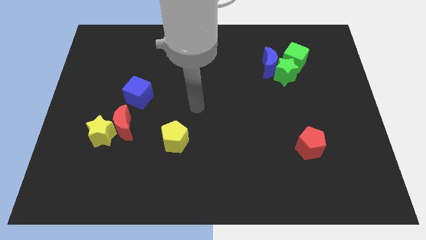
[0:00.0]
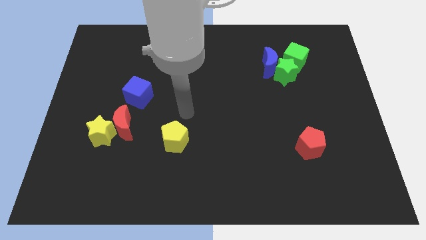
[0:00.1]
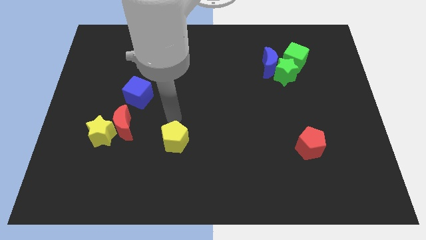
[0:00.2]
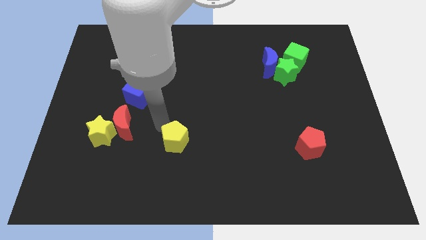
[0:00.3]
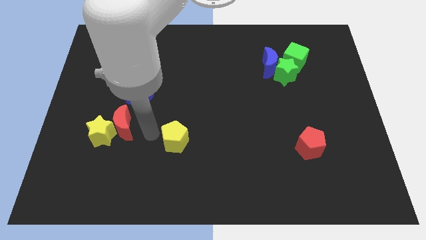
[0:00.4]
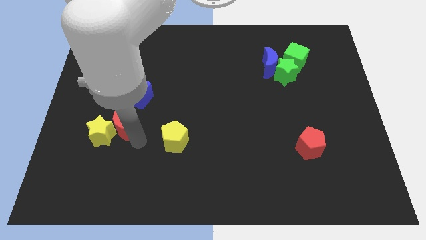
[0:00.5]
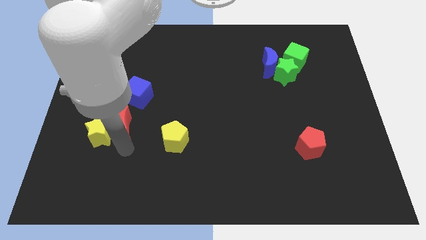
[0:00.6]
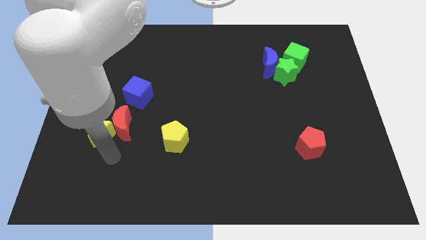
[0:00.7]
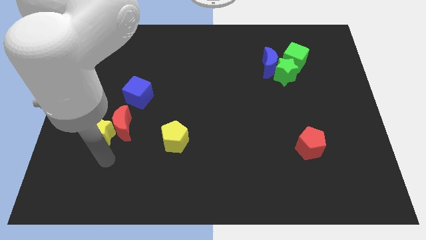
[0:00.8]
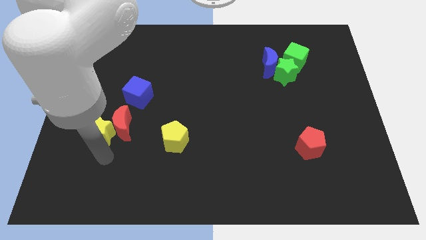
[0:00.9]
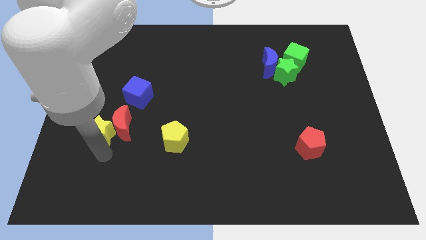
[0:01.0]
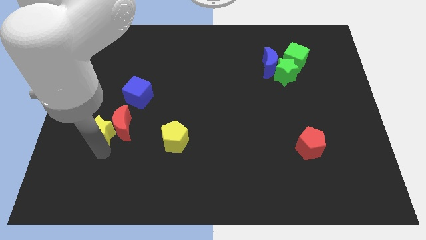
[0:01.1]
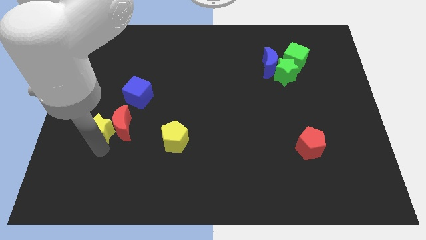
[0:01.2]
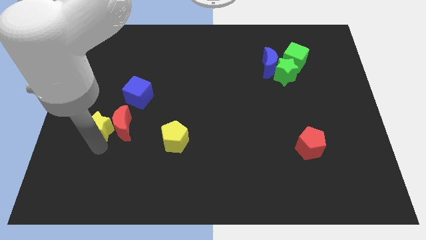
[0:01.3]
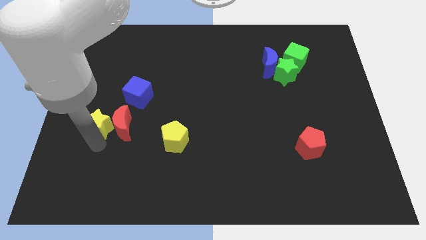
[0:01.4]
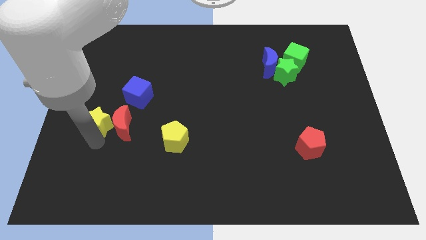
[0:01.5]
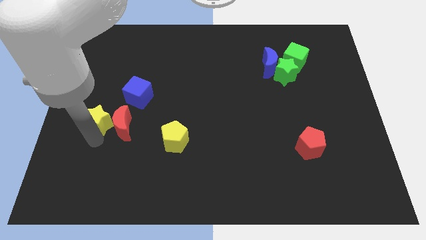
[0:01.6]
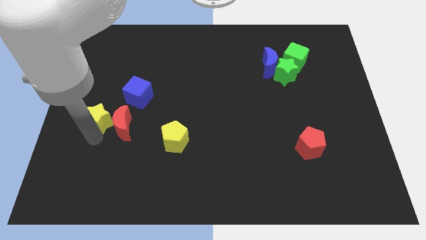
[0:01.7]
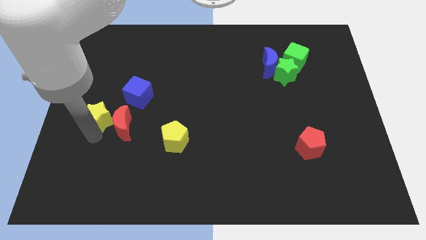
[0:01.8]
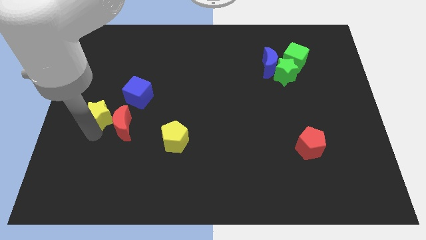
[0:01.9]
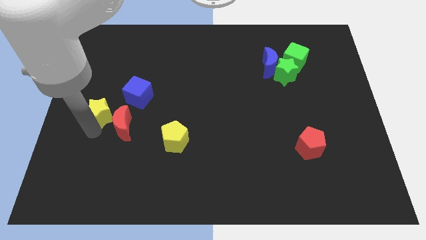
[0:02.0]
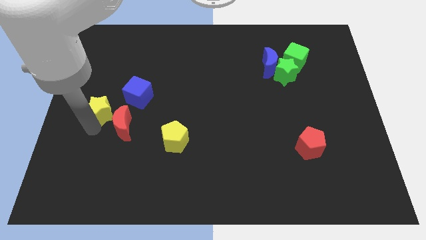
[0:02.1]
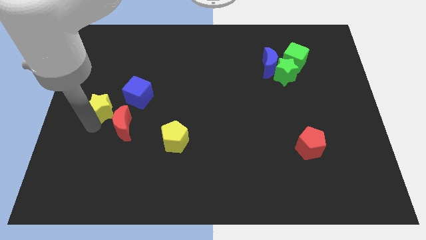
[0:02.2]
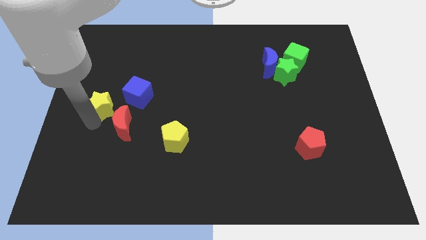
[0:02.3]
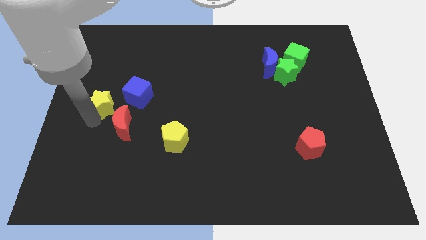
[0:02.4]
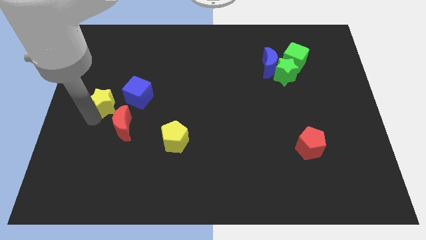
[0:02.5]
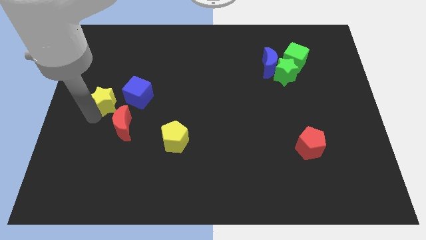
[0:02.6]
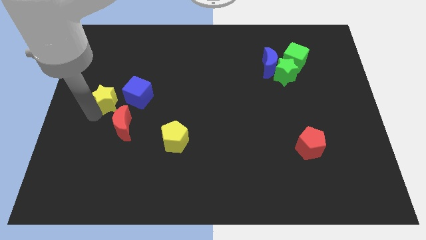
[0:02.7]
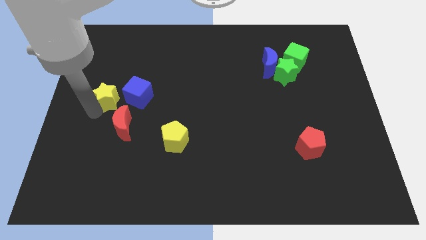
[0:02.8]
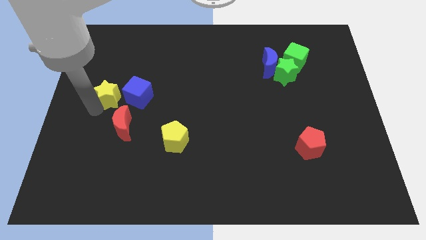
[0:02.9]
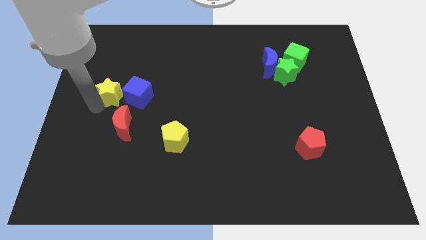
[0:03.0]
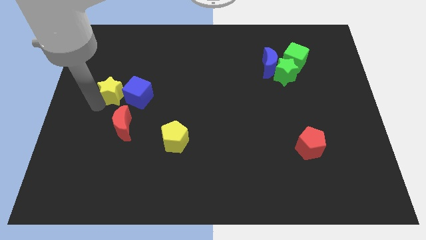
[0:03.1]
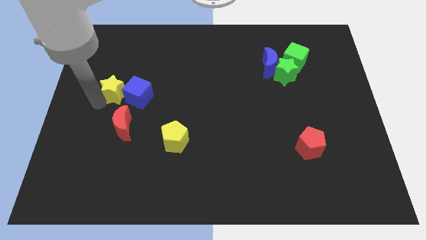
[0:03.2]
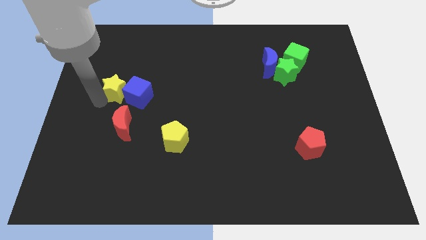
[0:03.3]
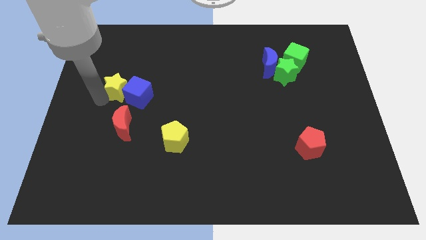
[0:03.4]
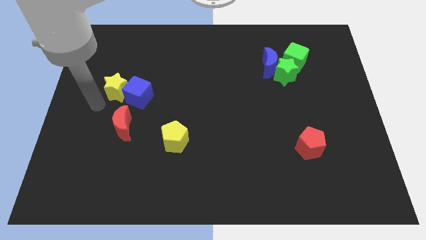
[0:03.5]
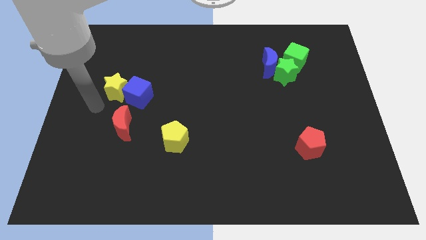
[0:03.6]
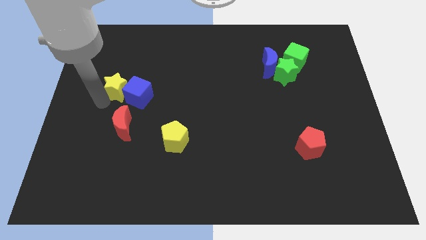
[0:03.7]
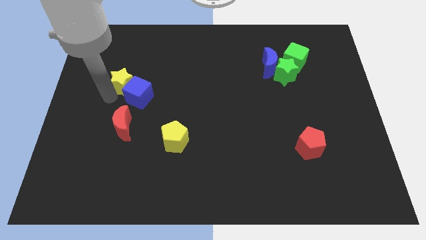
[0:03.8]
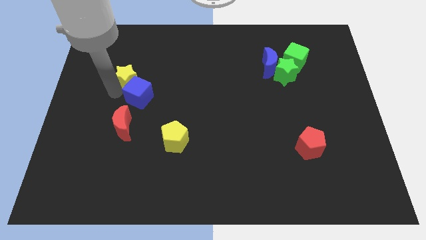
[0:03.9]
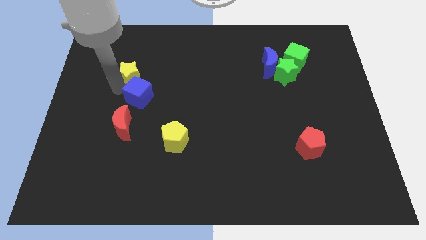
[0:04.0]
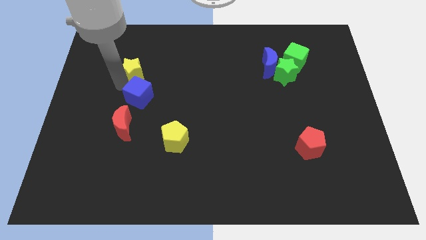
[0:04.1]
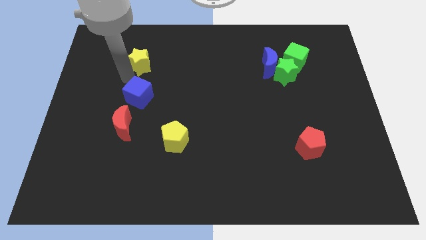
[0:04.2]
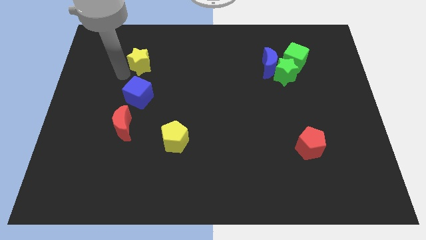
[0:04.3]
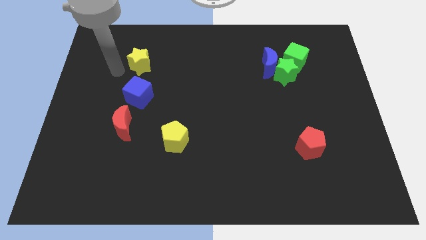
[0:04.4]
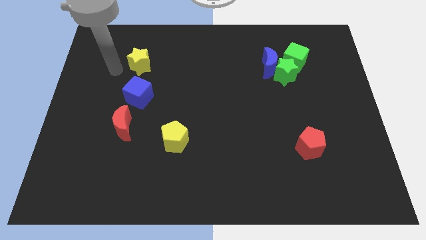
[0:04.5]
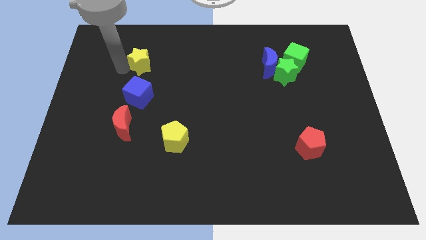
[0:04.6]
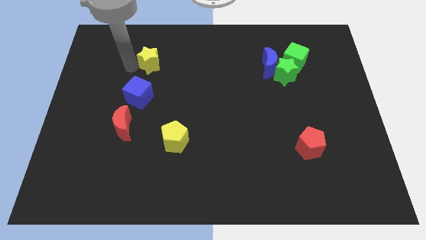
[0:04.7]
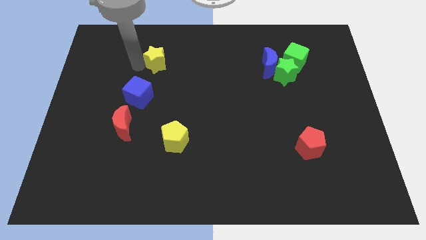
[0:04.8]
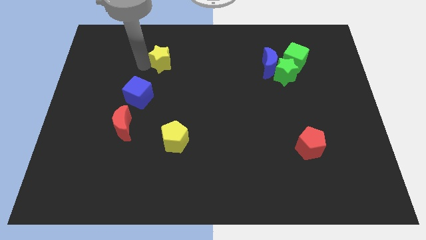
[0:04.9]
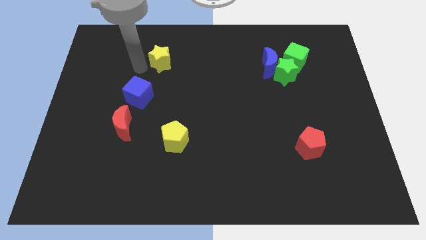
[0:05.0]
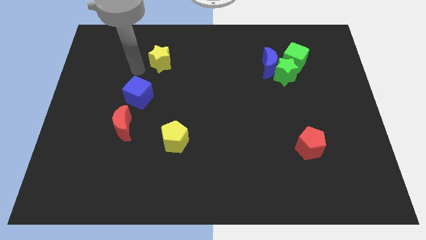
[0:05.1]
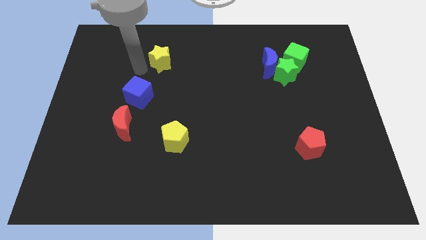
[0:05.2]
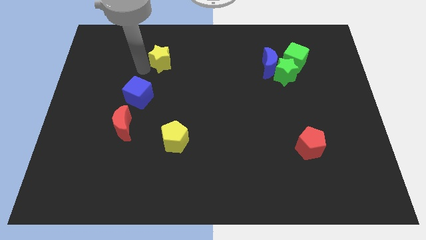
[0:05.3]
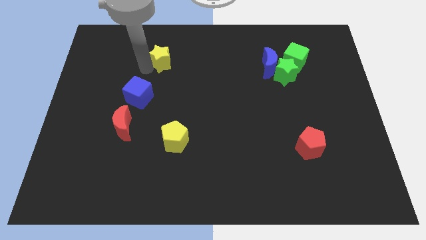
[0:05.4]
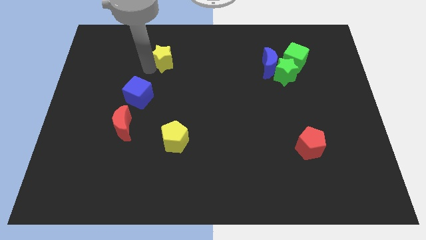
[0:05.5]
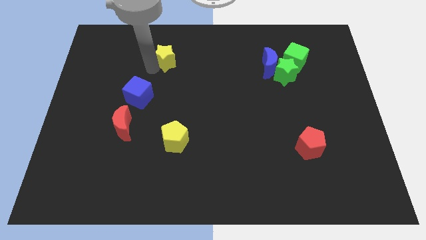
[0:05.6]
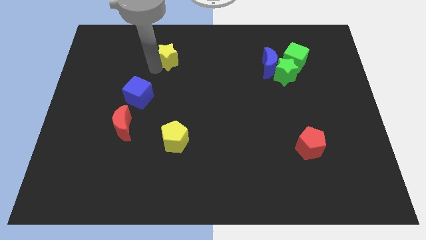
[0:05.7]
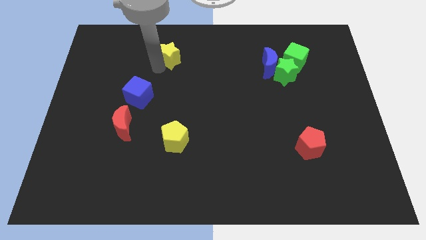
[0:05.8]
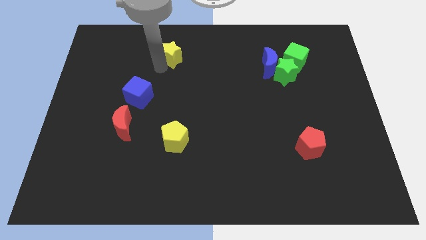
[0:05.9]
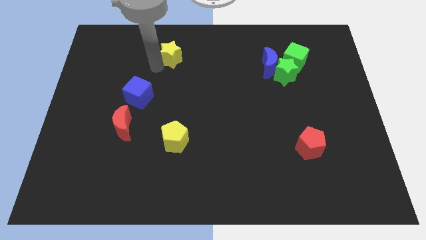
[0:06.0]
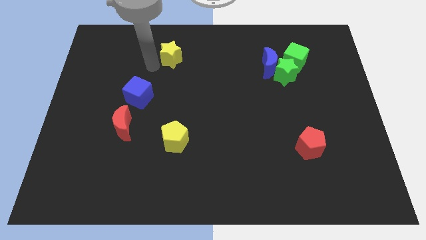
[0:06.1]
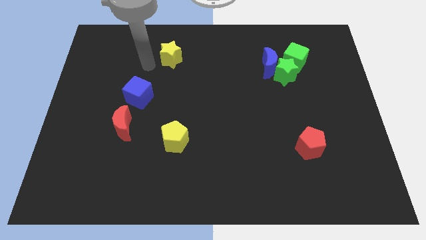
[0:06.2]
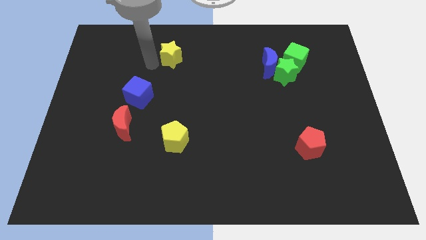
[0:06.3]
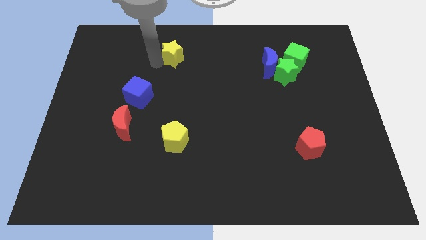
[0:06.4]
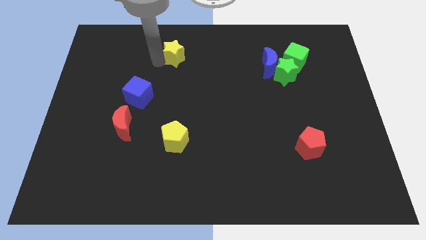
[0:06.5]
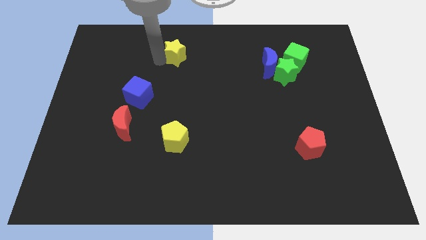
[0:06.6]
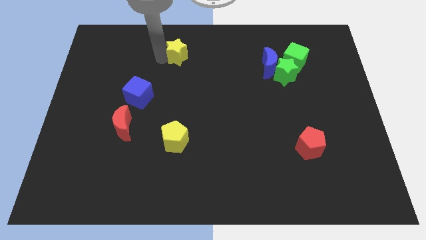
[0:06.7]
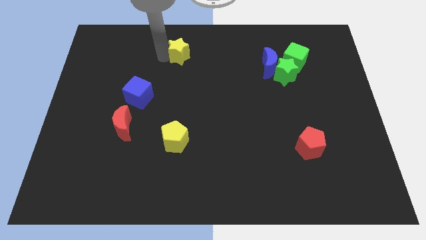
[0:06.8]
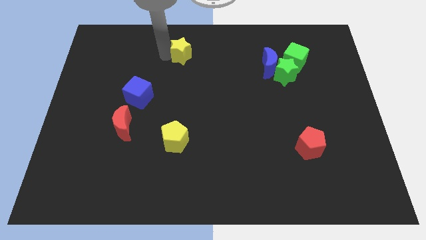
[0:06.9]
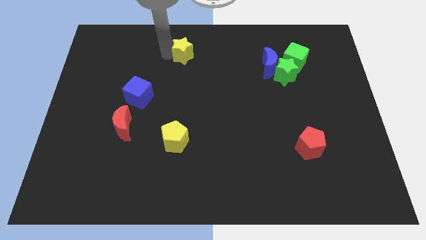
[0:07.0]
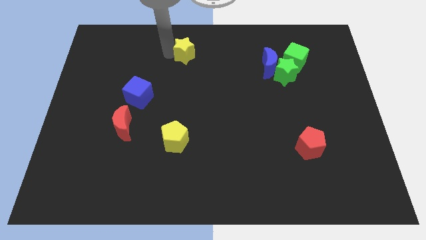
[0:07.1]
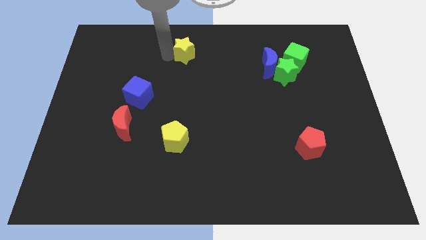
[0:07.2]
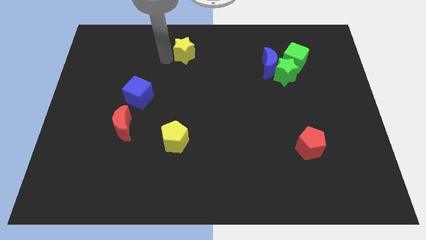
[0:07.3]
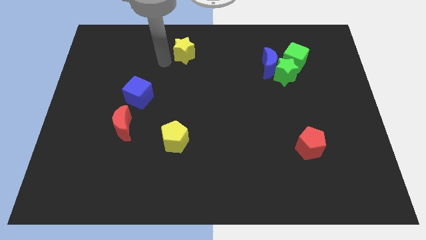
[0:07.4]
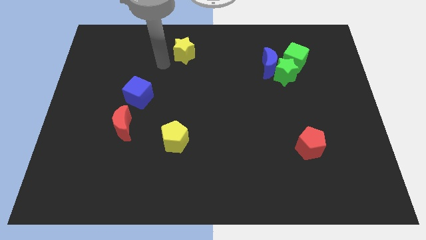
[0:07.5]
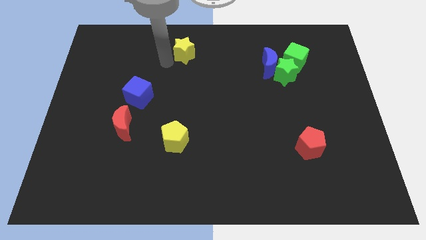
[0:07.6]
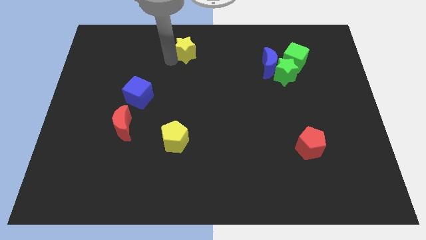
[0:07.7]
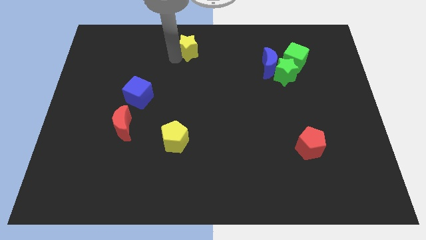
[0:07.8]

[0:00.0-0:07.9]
push the yellow star to the top
